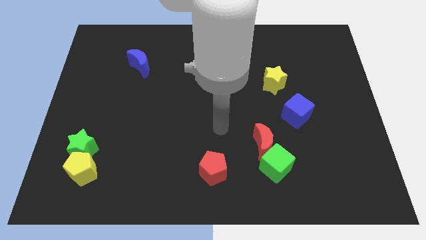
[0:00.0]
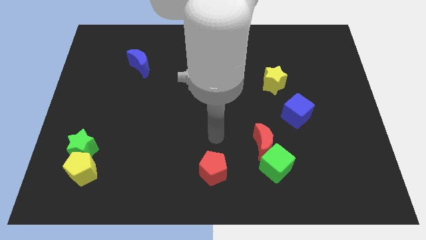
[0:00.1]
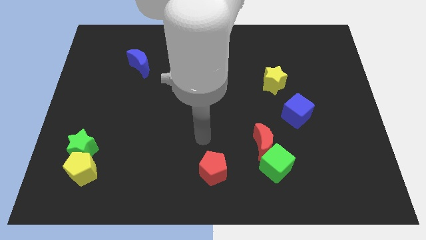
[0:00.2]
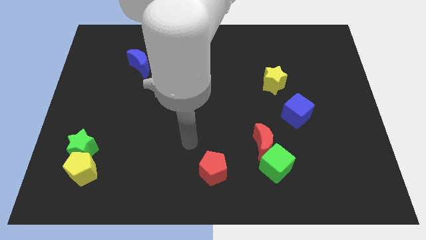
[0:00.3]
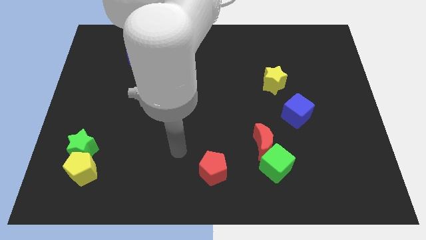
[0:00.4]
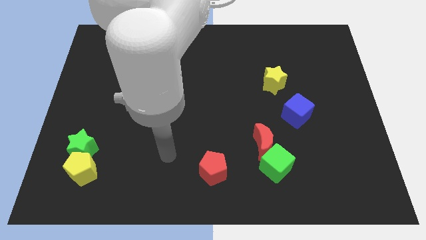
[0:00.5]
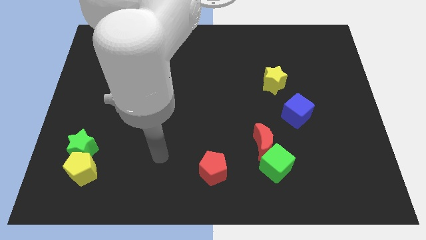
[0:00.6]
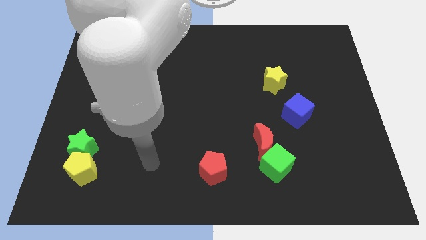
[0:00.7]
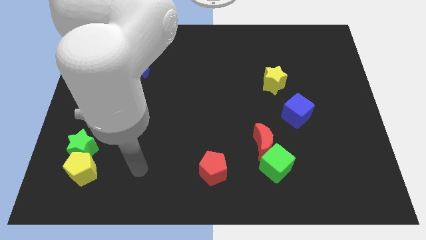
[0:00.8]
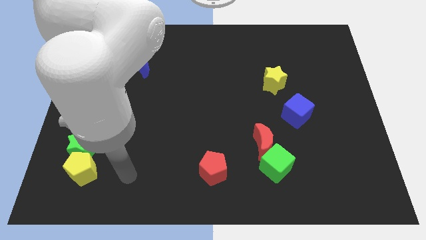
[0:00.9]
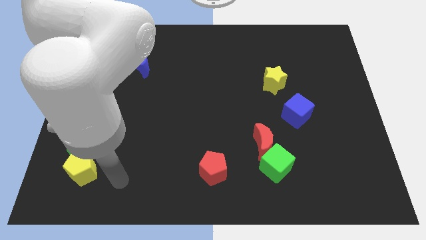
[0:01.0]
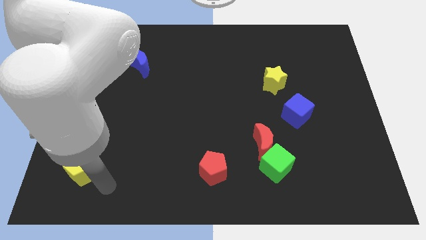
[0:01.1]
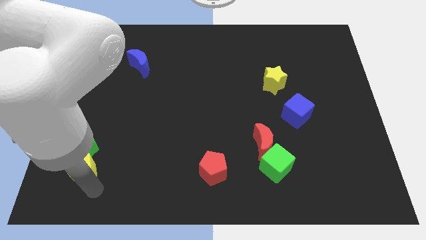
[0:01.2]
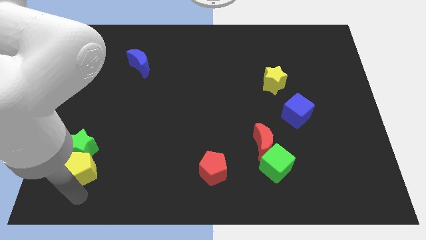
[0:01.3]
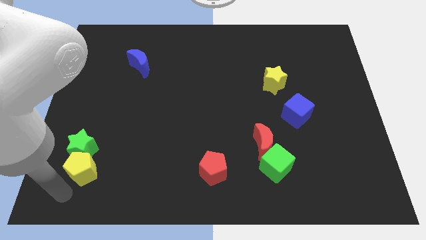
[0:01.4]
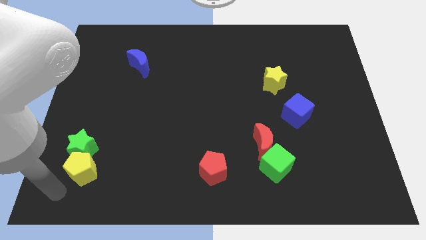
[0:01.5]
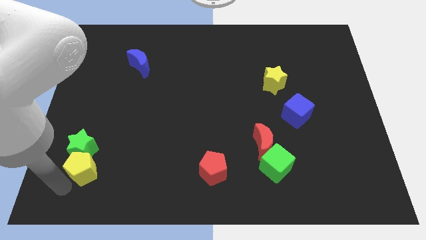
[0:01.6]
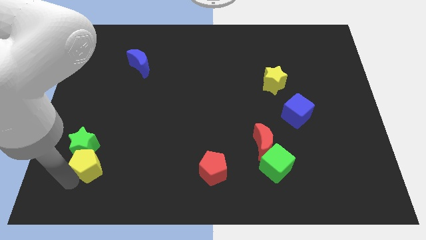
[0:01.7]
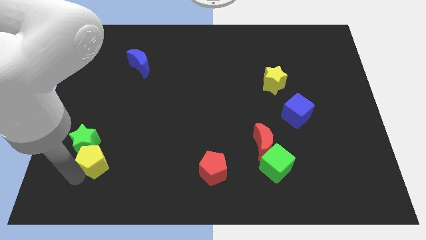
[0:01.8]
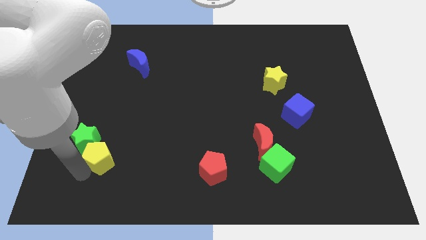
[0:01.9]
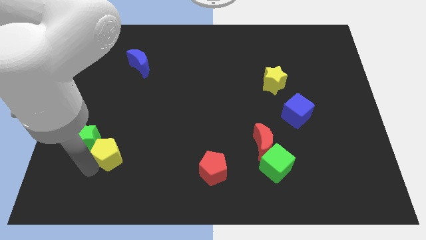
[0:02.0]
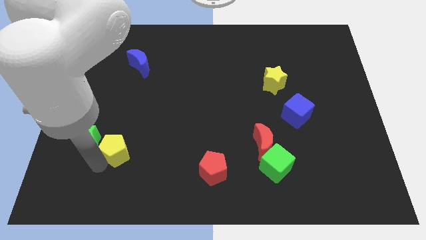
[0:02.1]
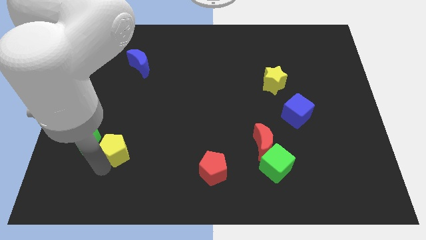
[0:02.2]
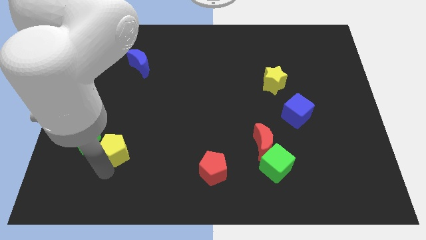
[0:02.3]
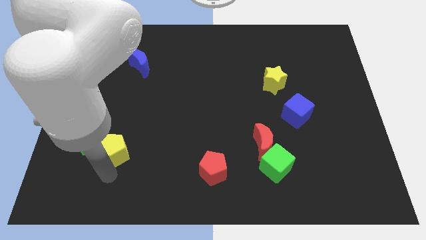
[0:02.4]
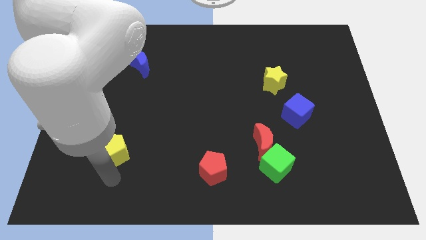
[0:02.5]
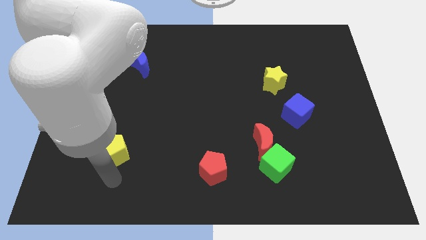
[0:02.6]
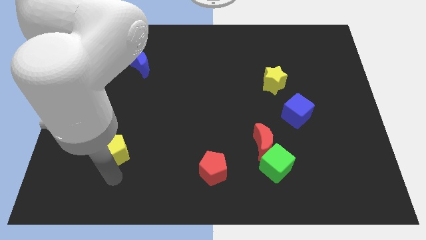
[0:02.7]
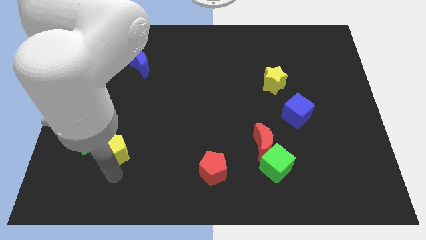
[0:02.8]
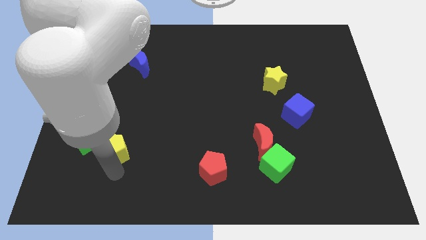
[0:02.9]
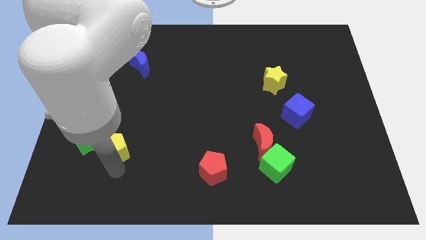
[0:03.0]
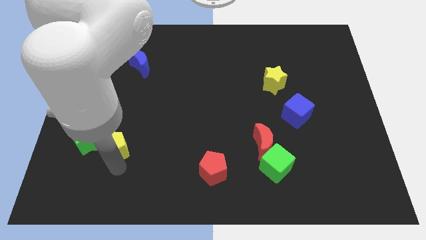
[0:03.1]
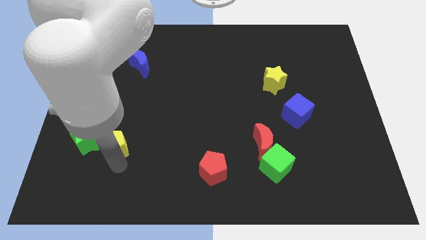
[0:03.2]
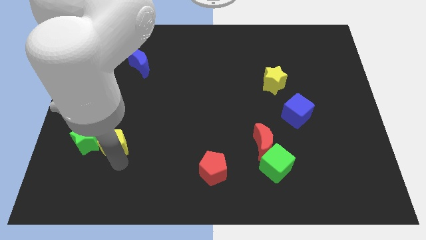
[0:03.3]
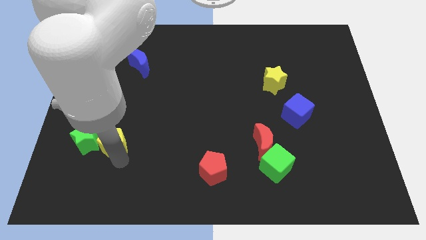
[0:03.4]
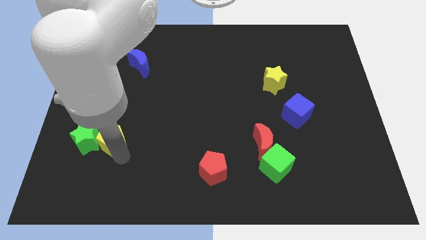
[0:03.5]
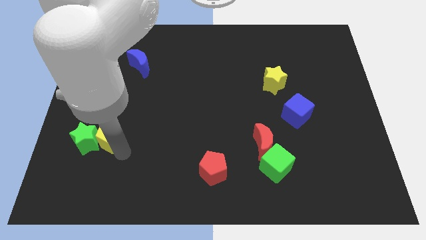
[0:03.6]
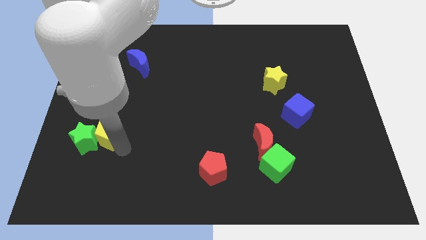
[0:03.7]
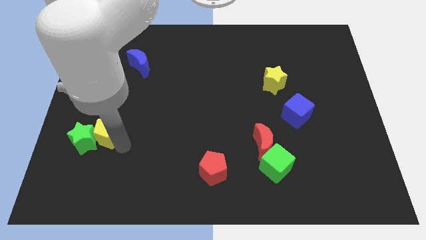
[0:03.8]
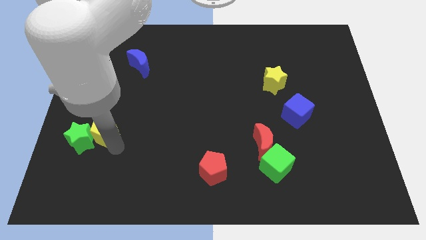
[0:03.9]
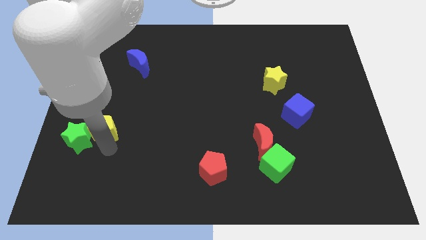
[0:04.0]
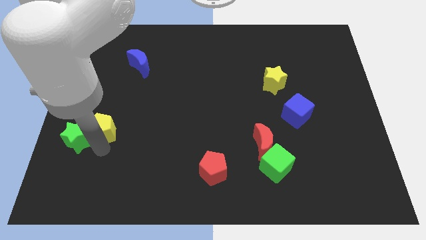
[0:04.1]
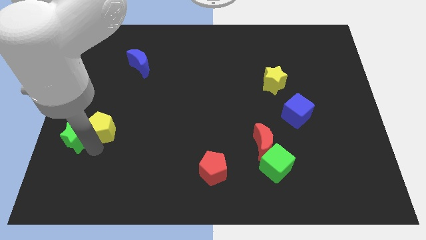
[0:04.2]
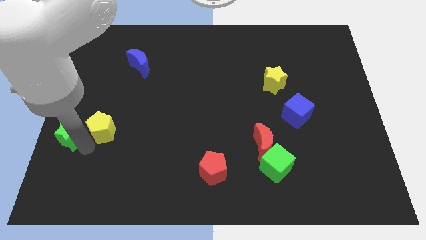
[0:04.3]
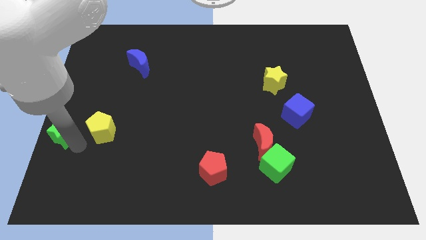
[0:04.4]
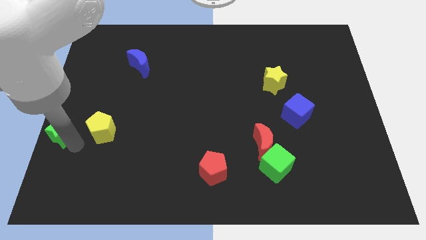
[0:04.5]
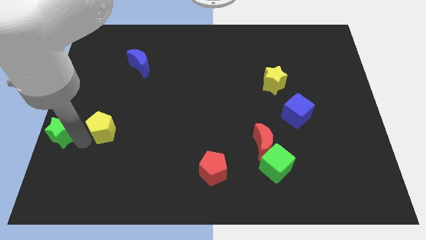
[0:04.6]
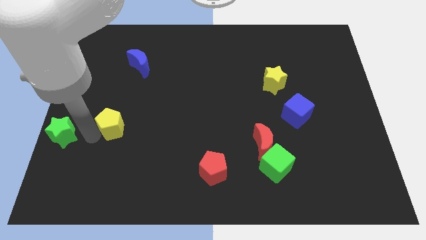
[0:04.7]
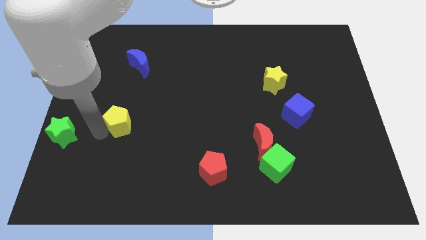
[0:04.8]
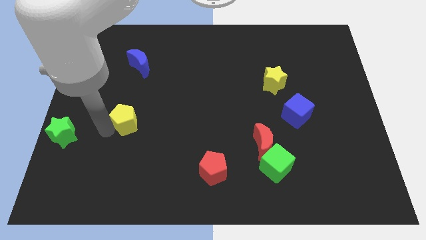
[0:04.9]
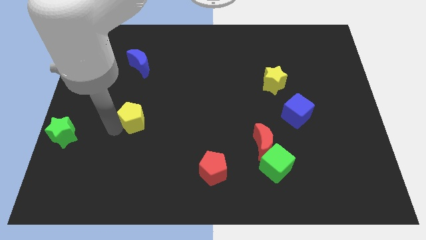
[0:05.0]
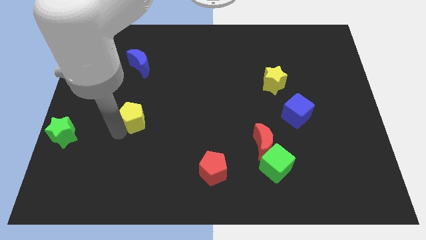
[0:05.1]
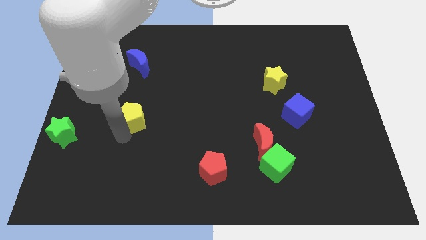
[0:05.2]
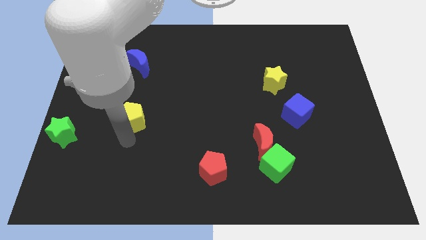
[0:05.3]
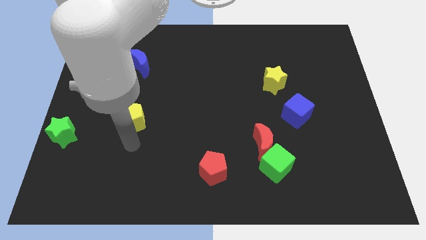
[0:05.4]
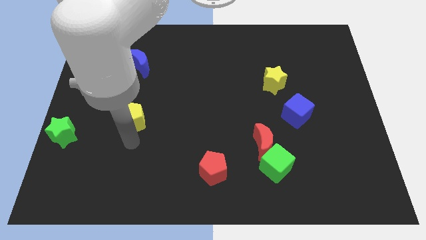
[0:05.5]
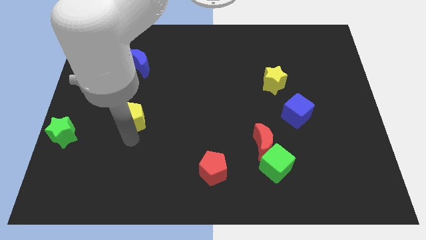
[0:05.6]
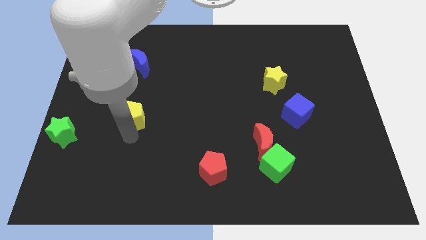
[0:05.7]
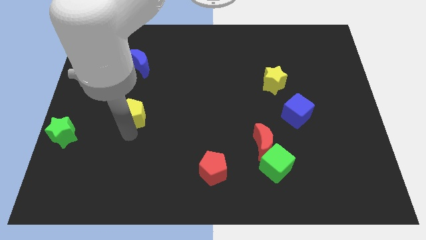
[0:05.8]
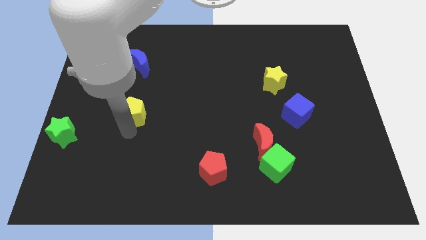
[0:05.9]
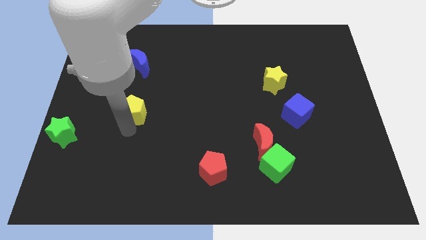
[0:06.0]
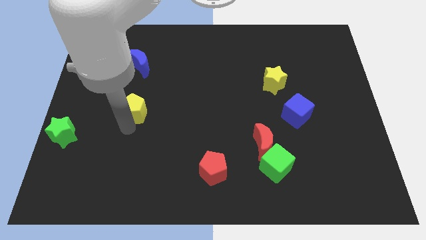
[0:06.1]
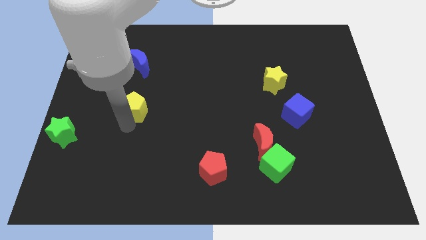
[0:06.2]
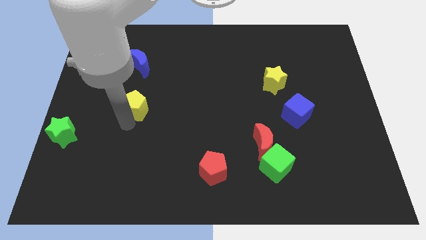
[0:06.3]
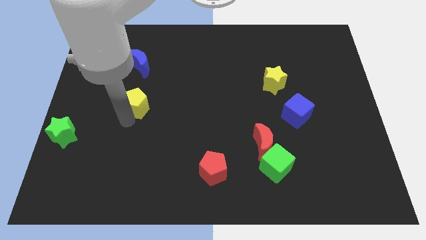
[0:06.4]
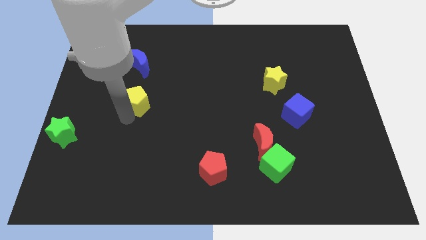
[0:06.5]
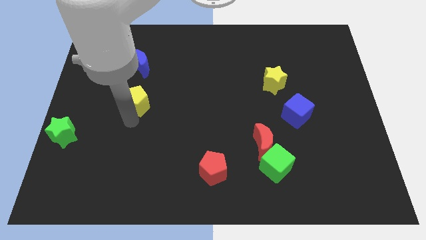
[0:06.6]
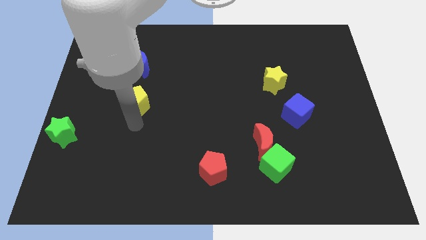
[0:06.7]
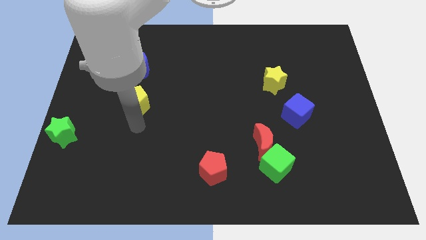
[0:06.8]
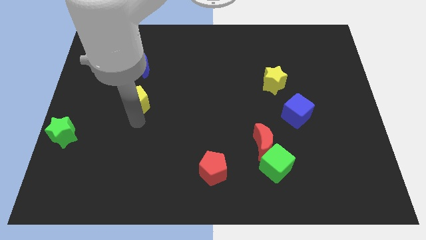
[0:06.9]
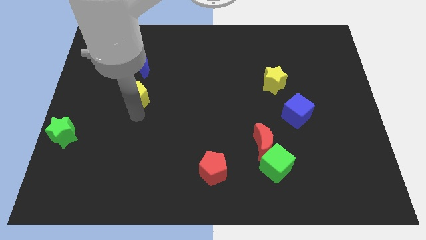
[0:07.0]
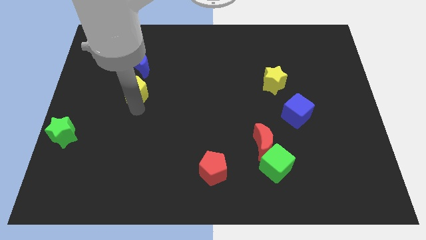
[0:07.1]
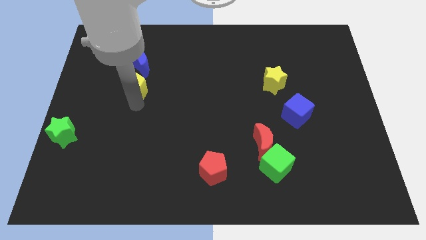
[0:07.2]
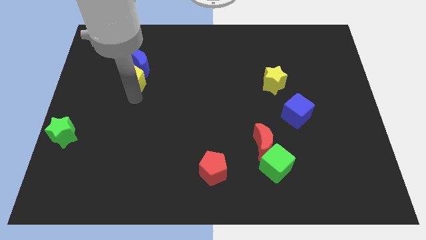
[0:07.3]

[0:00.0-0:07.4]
slide the yellow pentagon towards the blue moon
